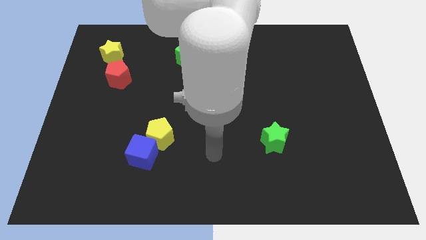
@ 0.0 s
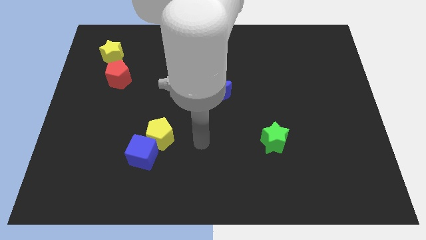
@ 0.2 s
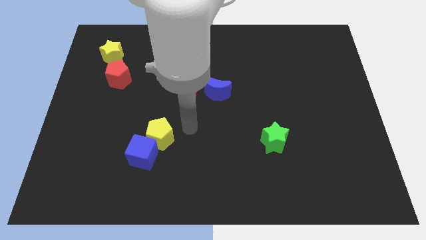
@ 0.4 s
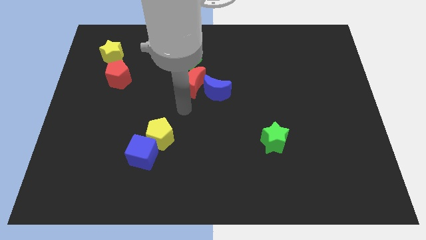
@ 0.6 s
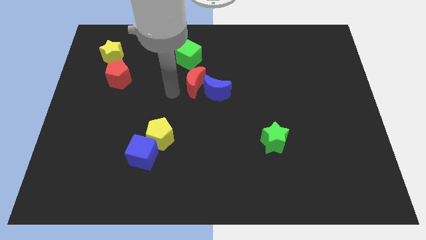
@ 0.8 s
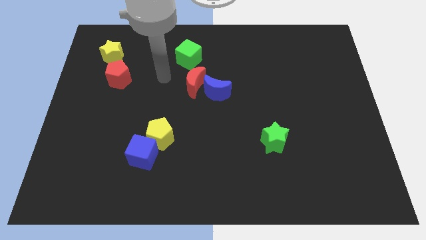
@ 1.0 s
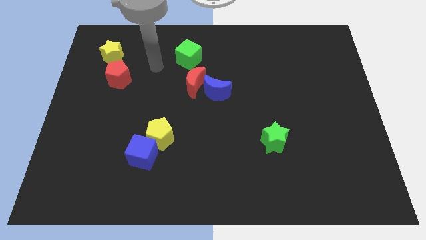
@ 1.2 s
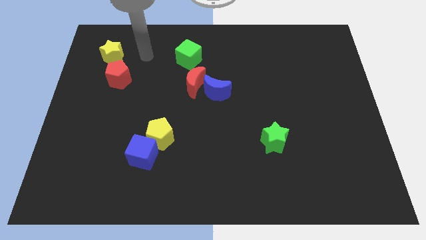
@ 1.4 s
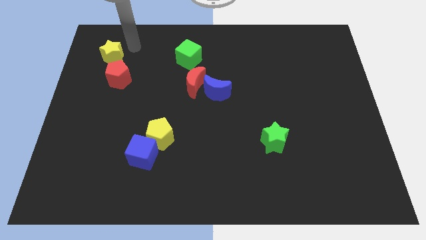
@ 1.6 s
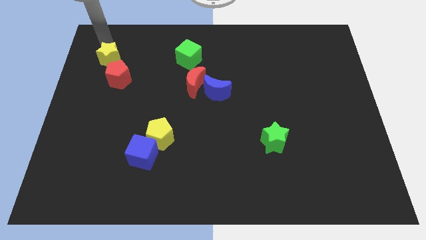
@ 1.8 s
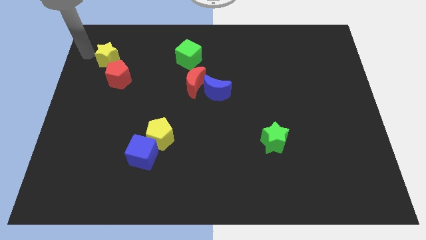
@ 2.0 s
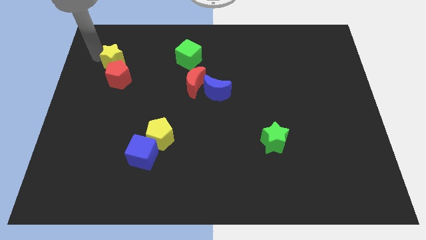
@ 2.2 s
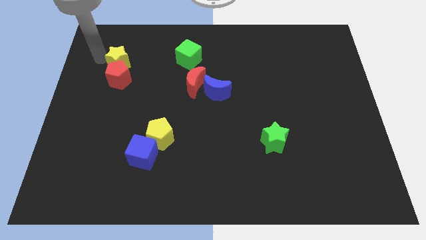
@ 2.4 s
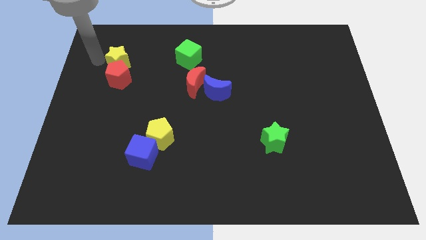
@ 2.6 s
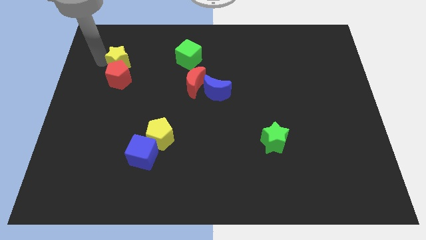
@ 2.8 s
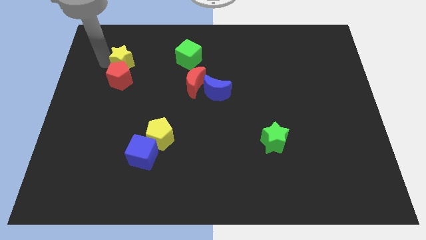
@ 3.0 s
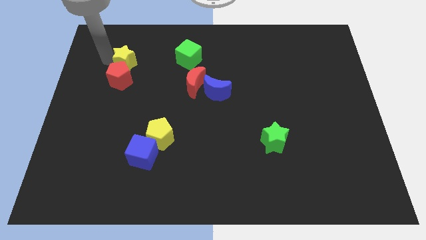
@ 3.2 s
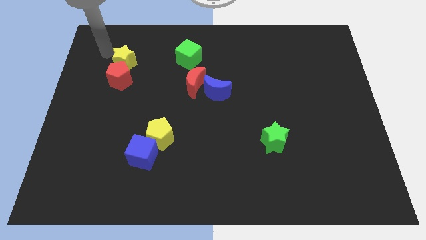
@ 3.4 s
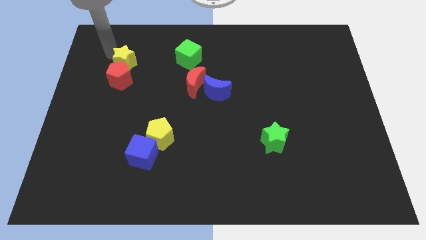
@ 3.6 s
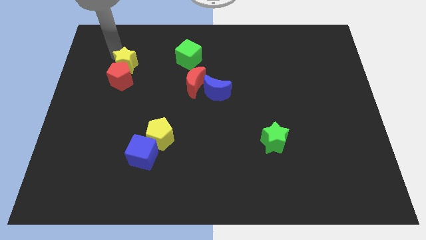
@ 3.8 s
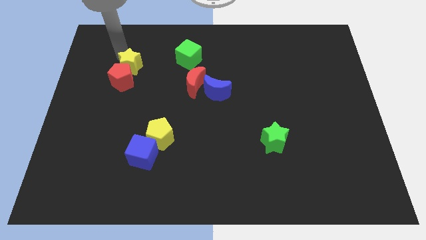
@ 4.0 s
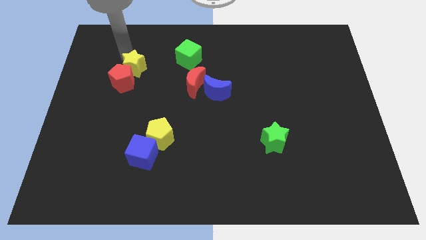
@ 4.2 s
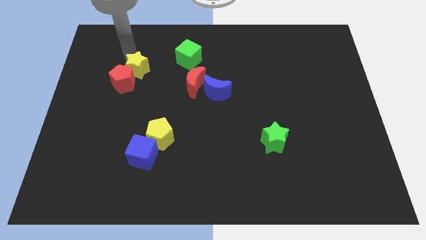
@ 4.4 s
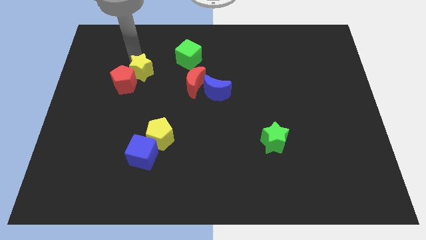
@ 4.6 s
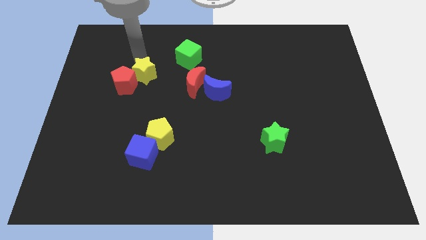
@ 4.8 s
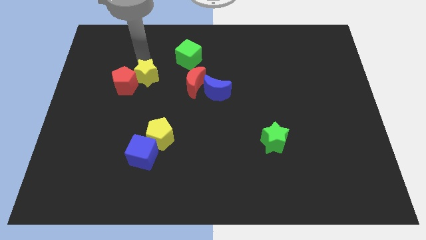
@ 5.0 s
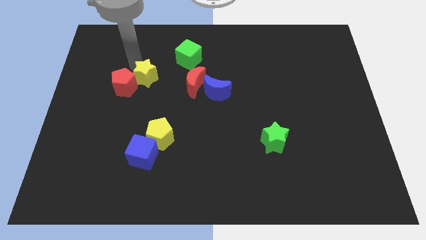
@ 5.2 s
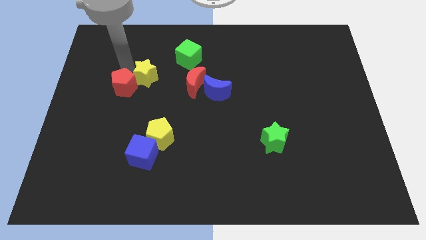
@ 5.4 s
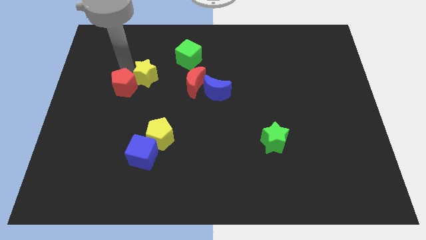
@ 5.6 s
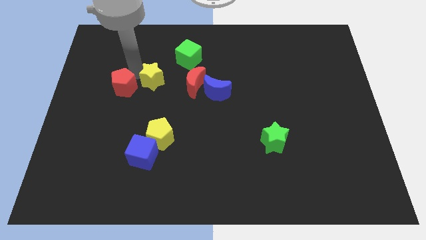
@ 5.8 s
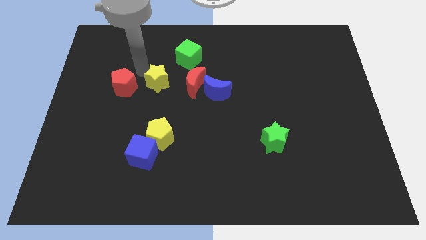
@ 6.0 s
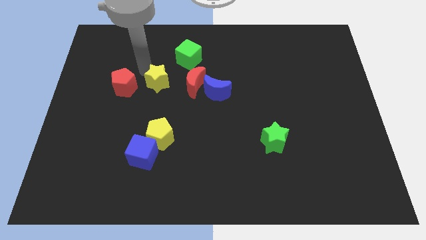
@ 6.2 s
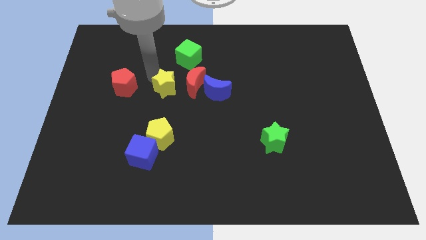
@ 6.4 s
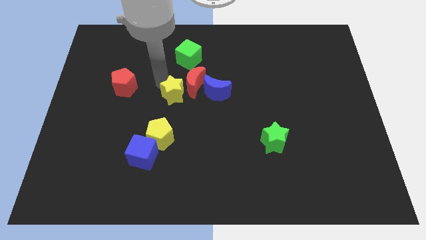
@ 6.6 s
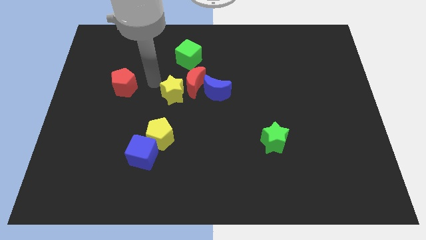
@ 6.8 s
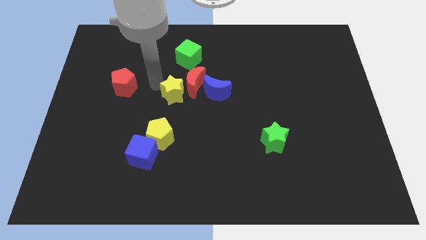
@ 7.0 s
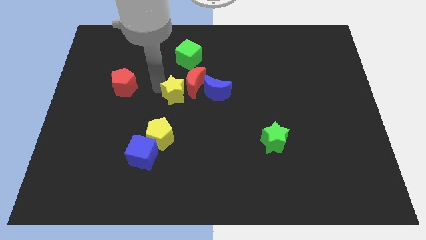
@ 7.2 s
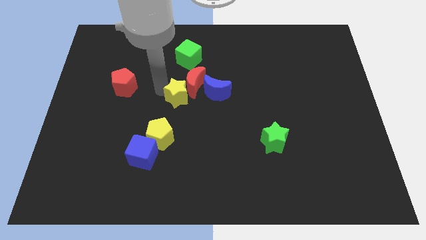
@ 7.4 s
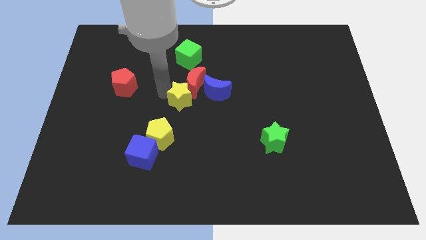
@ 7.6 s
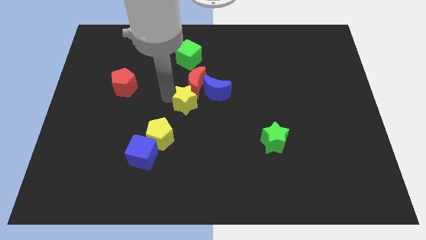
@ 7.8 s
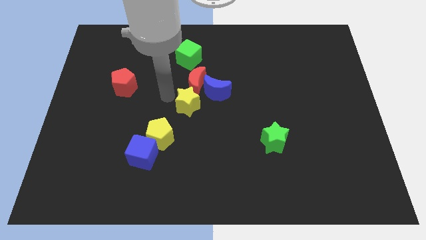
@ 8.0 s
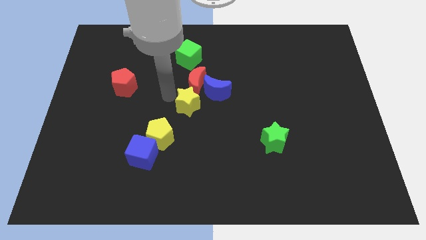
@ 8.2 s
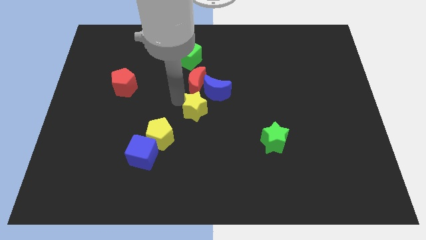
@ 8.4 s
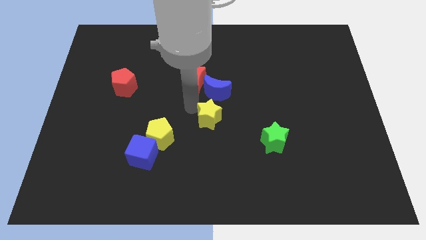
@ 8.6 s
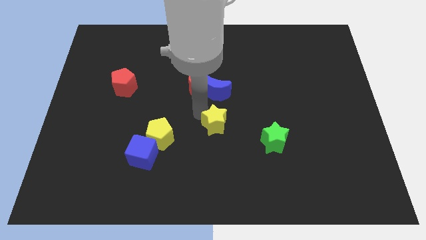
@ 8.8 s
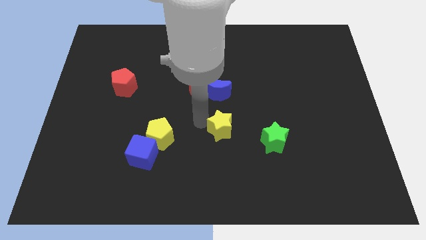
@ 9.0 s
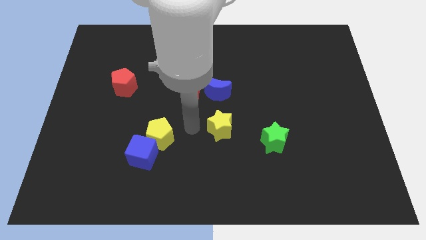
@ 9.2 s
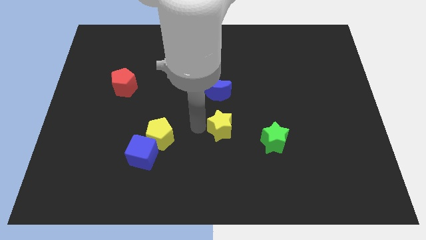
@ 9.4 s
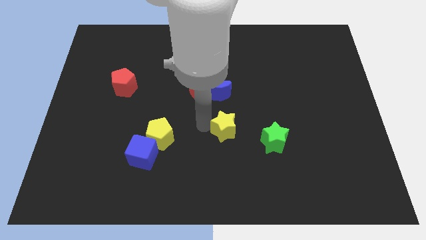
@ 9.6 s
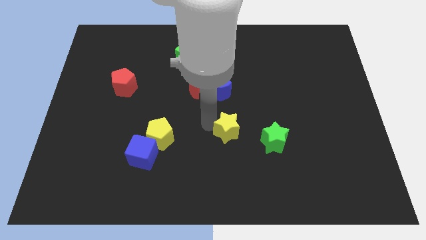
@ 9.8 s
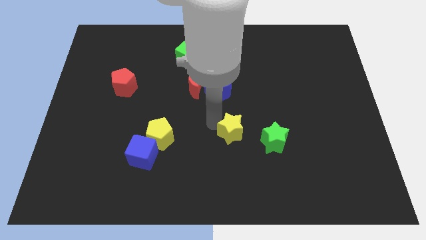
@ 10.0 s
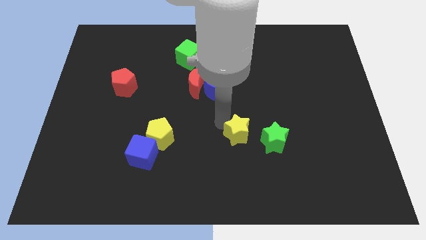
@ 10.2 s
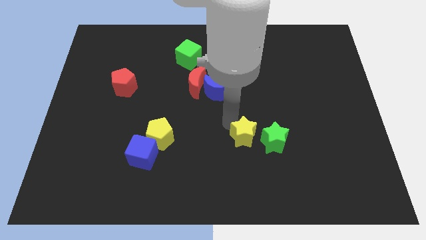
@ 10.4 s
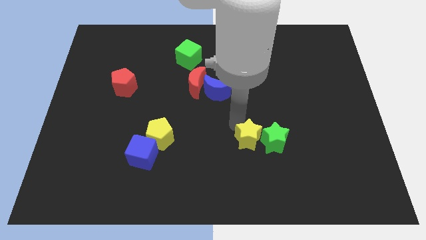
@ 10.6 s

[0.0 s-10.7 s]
slide the yellow star close to the green star

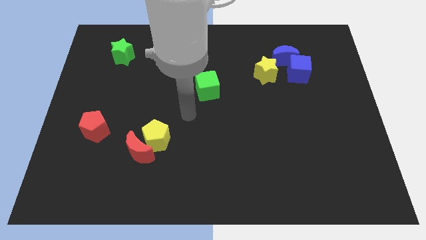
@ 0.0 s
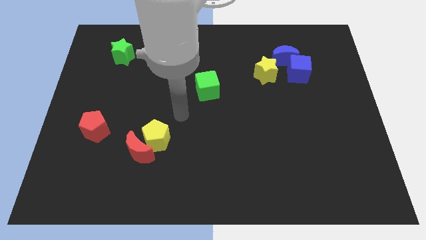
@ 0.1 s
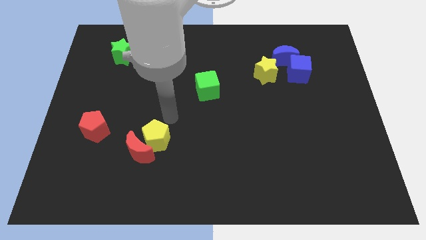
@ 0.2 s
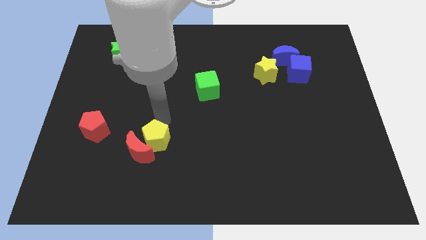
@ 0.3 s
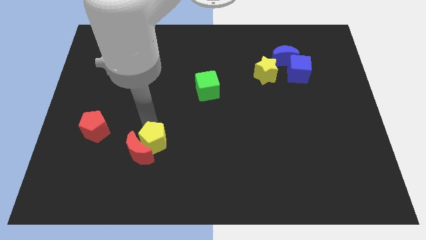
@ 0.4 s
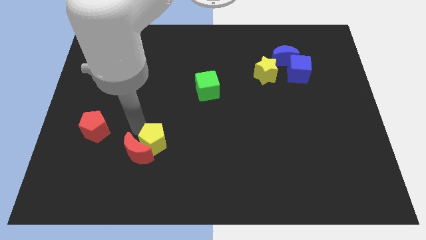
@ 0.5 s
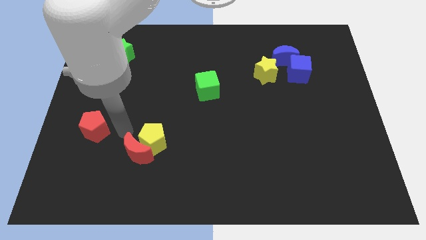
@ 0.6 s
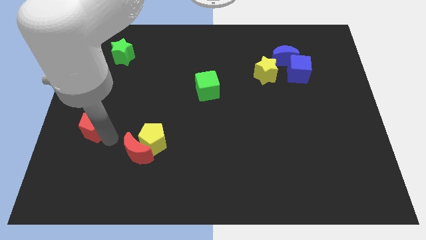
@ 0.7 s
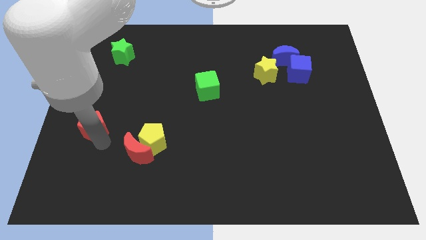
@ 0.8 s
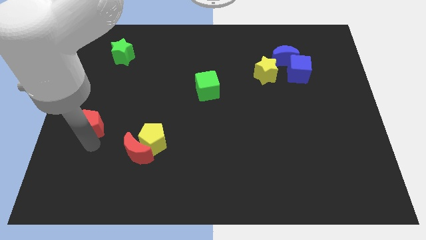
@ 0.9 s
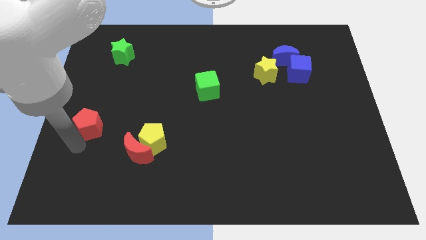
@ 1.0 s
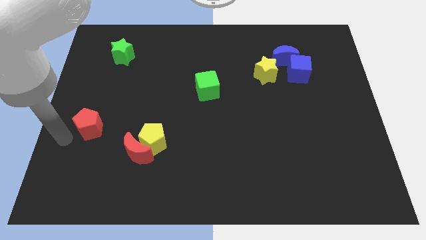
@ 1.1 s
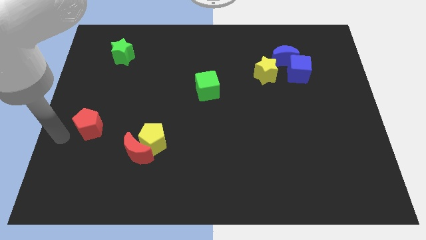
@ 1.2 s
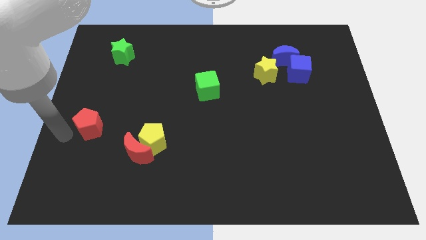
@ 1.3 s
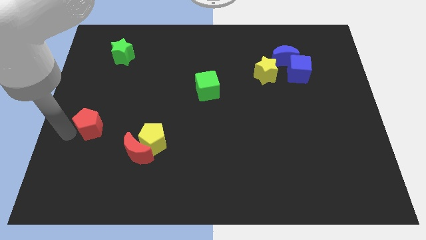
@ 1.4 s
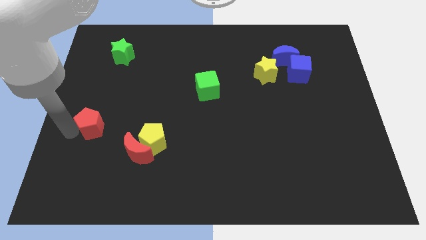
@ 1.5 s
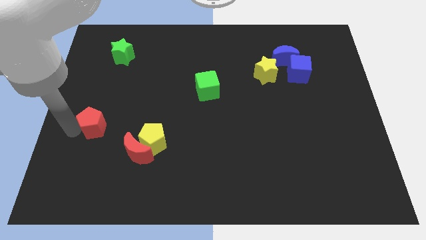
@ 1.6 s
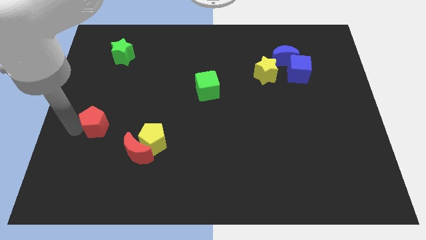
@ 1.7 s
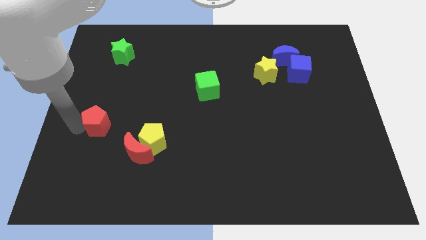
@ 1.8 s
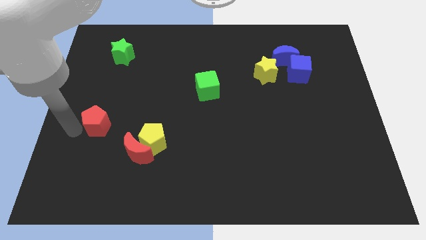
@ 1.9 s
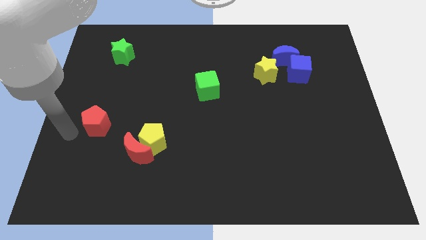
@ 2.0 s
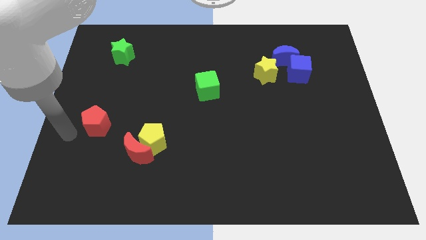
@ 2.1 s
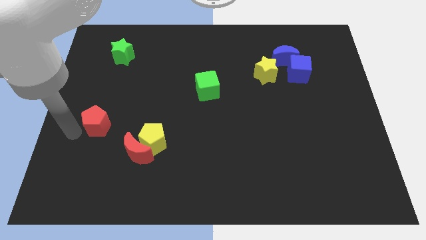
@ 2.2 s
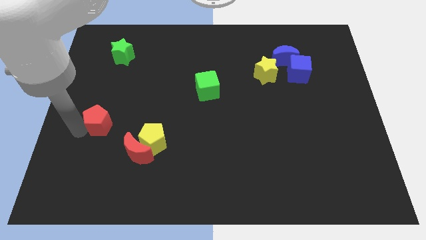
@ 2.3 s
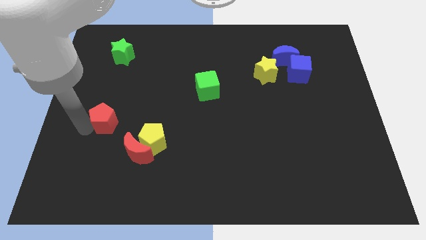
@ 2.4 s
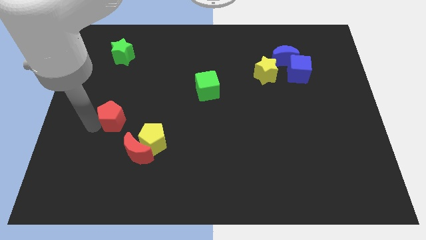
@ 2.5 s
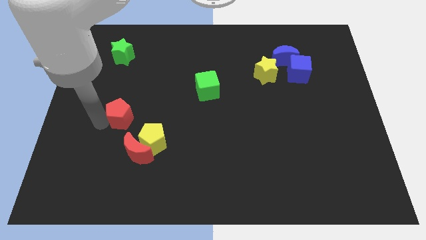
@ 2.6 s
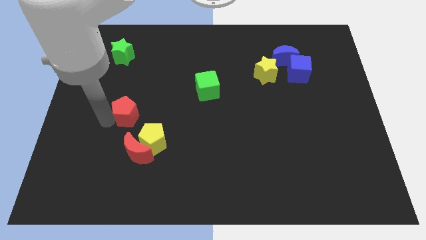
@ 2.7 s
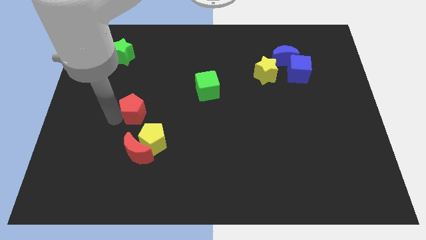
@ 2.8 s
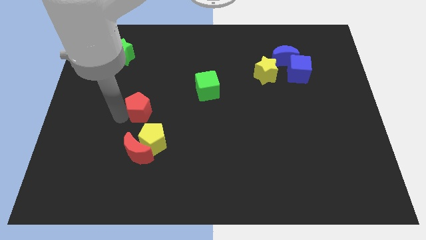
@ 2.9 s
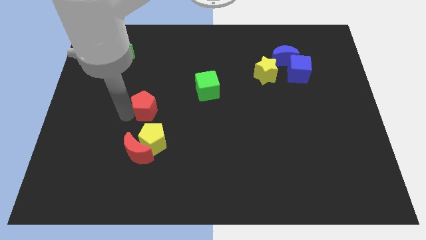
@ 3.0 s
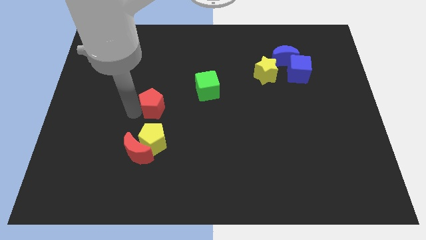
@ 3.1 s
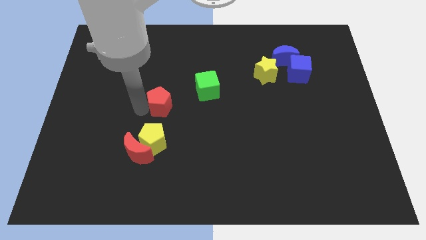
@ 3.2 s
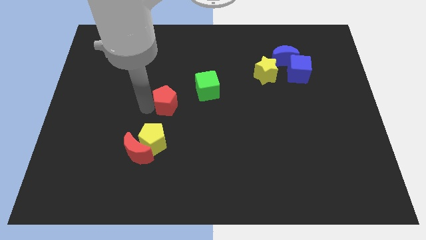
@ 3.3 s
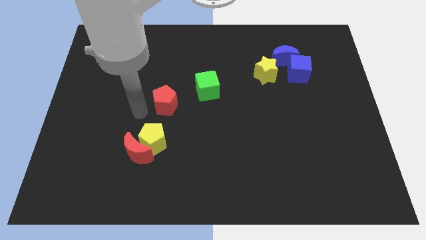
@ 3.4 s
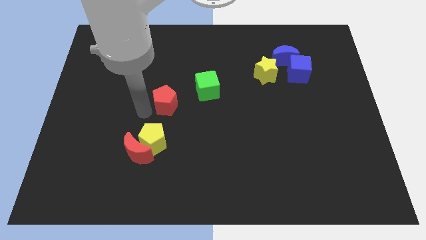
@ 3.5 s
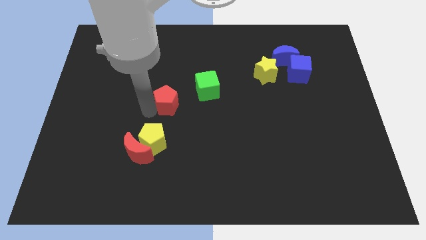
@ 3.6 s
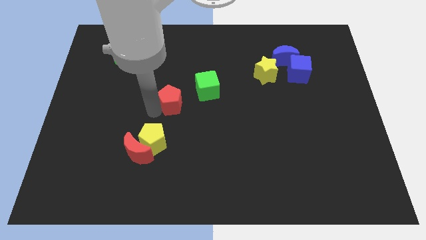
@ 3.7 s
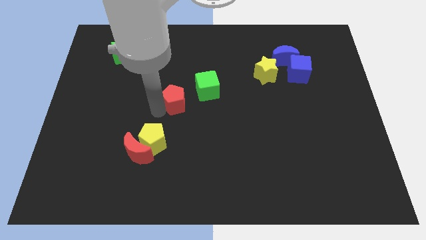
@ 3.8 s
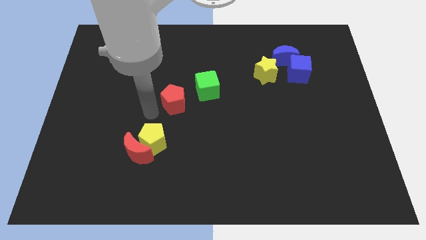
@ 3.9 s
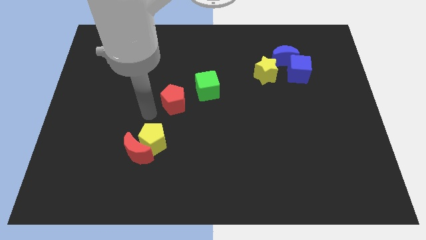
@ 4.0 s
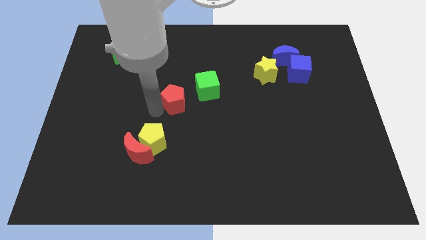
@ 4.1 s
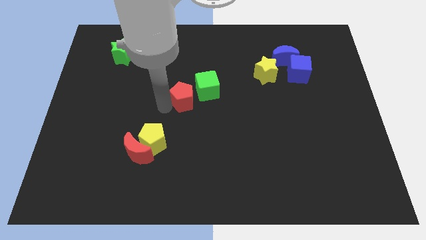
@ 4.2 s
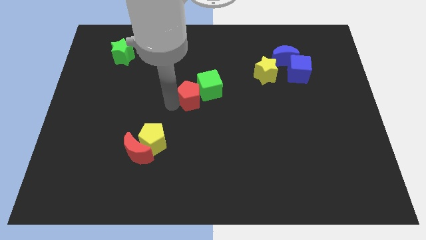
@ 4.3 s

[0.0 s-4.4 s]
slide the red pentagon close to the green cube
